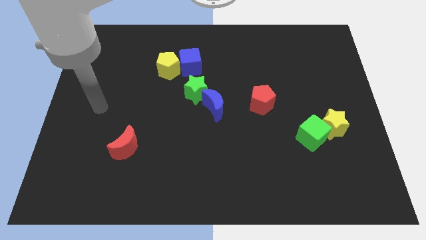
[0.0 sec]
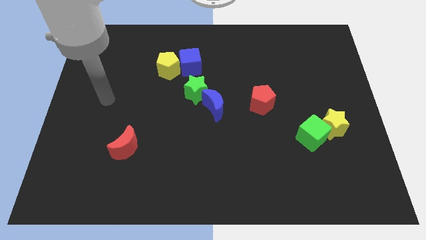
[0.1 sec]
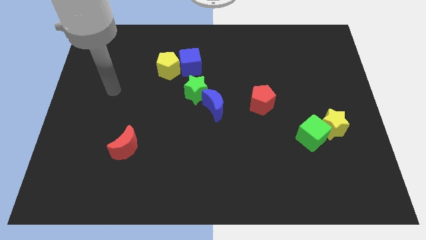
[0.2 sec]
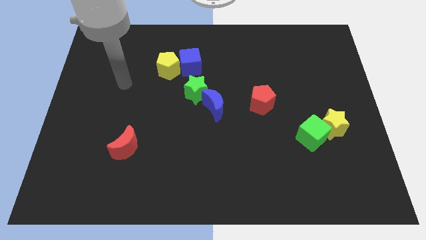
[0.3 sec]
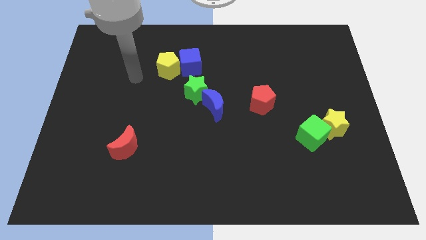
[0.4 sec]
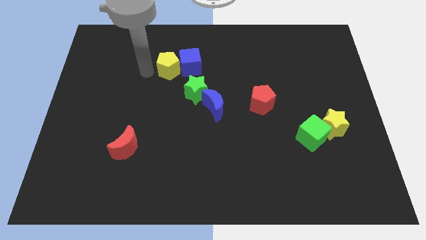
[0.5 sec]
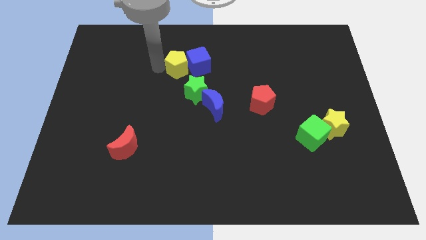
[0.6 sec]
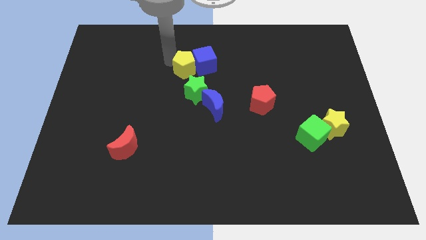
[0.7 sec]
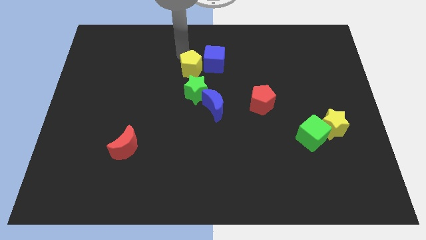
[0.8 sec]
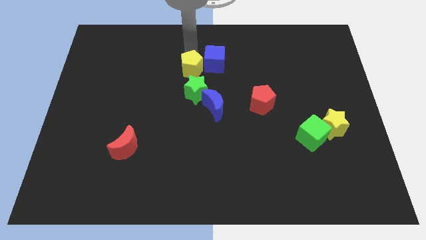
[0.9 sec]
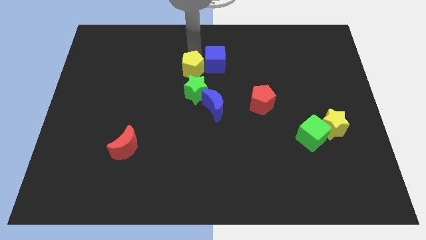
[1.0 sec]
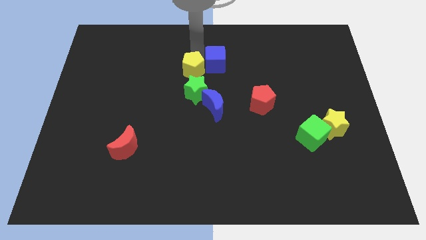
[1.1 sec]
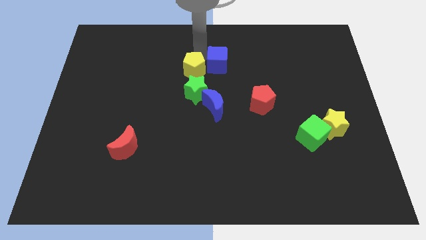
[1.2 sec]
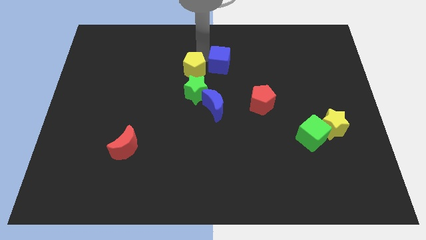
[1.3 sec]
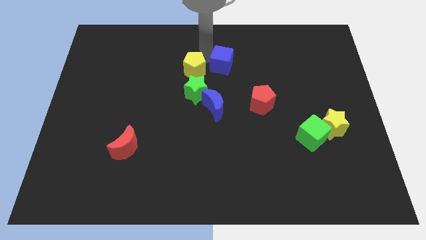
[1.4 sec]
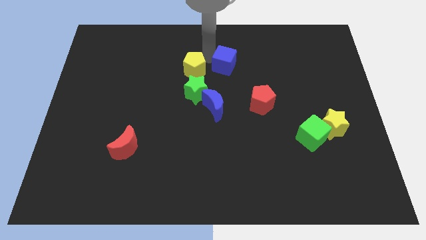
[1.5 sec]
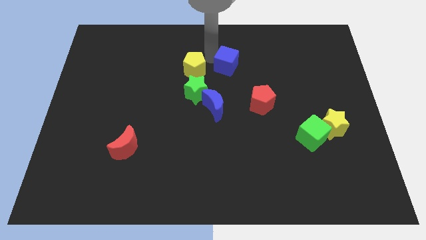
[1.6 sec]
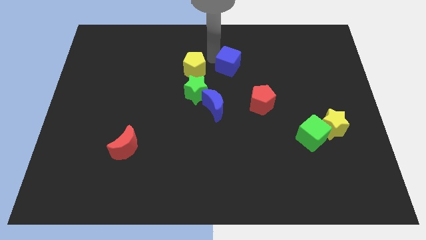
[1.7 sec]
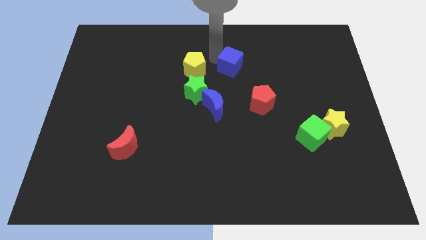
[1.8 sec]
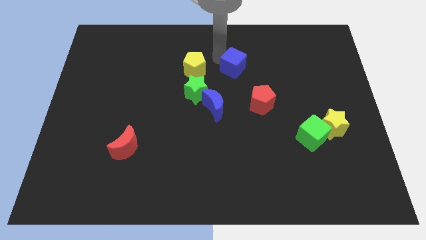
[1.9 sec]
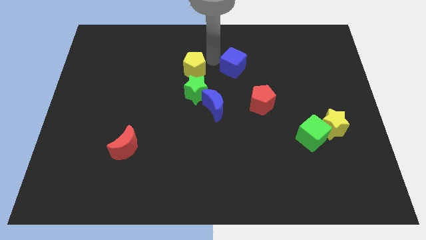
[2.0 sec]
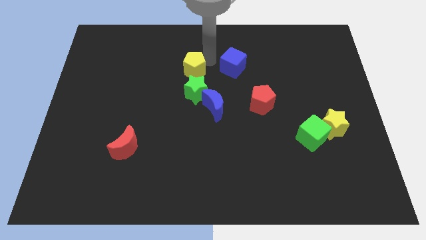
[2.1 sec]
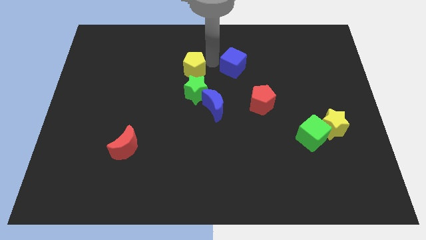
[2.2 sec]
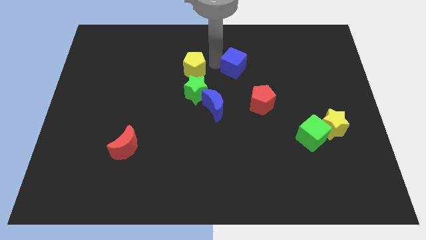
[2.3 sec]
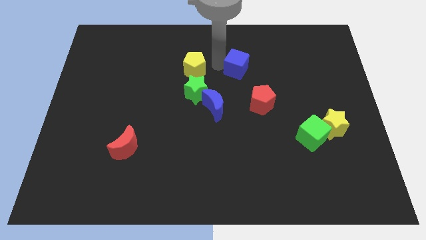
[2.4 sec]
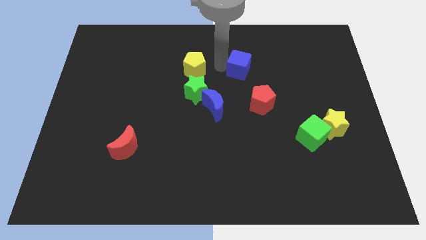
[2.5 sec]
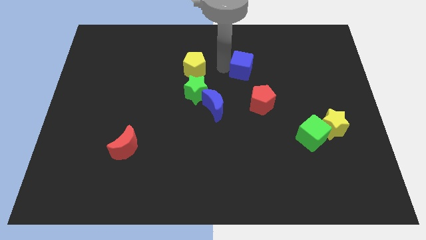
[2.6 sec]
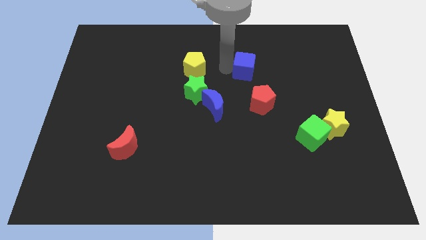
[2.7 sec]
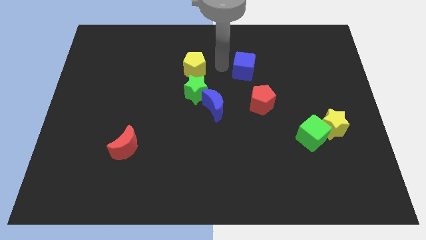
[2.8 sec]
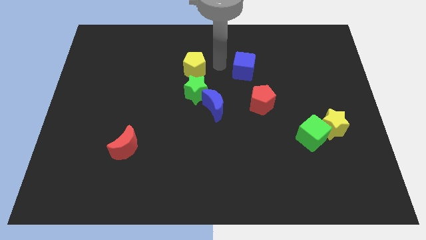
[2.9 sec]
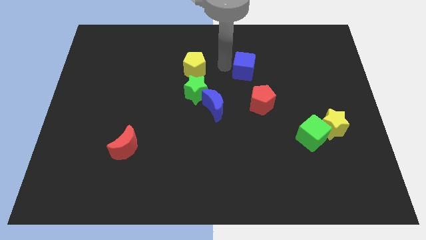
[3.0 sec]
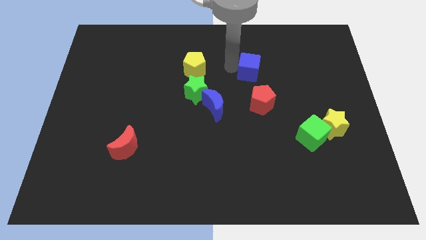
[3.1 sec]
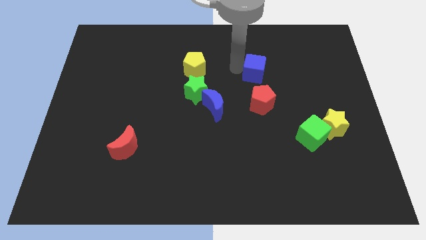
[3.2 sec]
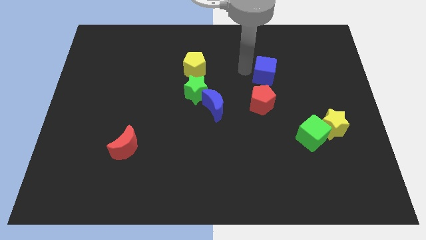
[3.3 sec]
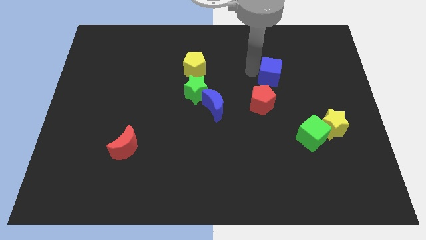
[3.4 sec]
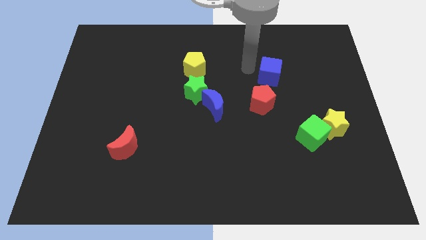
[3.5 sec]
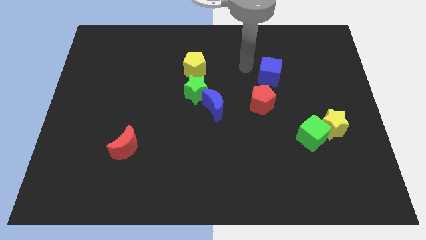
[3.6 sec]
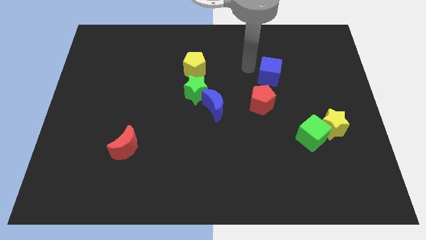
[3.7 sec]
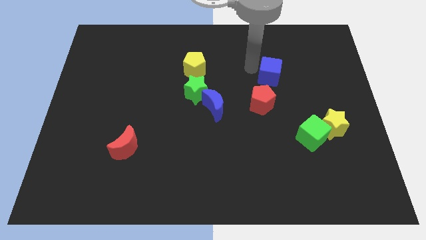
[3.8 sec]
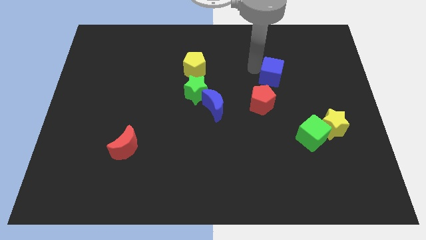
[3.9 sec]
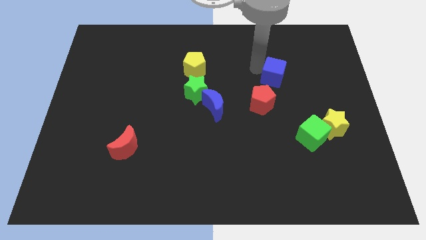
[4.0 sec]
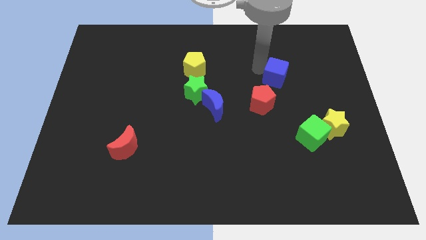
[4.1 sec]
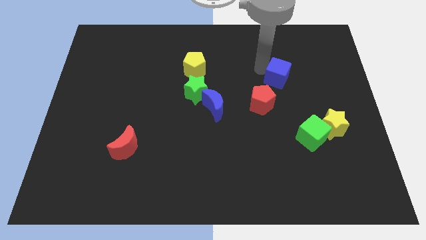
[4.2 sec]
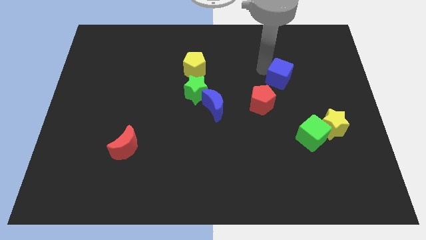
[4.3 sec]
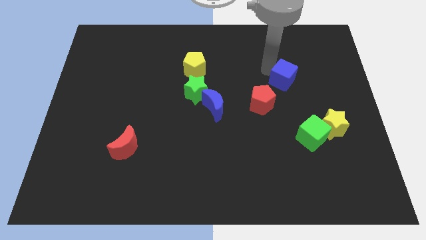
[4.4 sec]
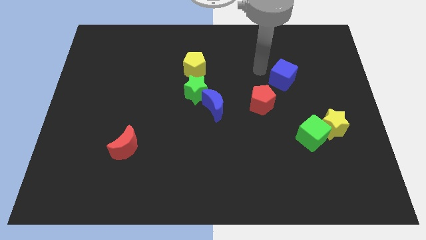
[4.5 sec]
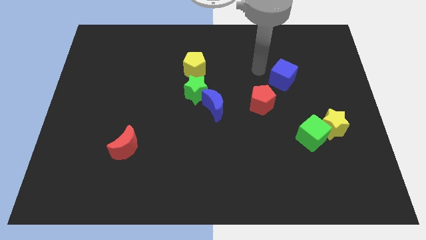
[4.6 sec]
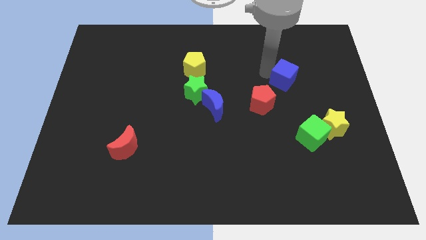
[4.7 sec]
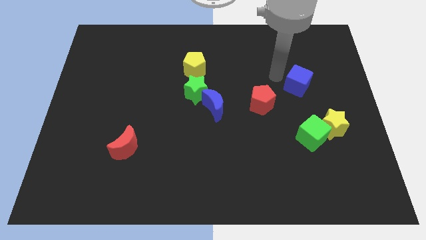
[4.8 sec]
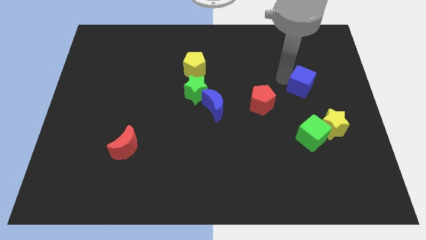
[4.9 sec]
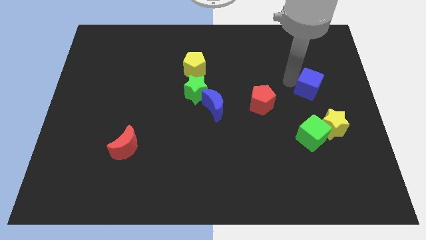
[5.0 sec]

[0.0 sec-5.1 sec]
push the blue cube above the yellow star

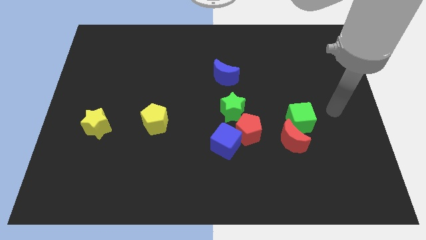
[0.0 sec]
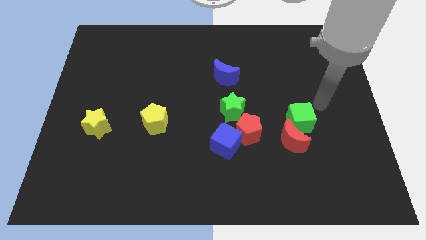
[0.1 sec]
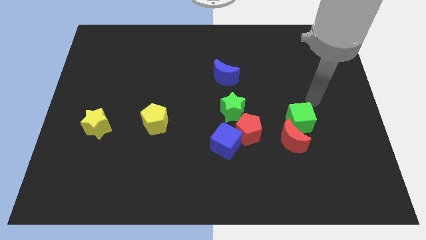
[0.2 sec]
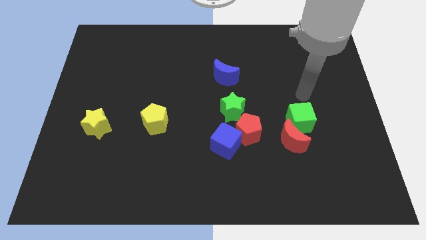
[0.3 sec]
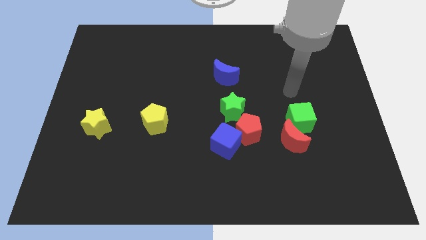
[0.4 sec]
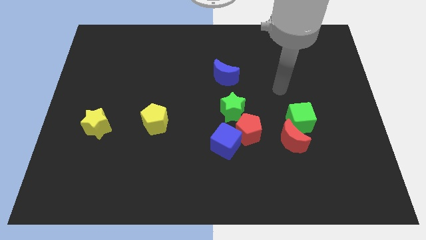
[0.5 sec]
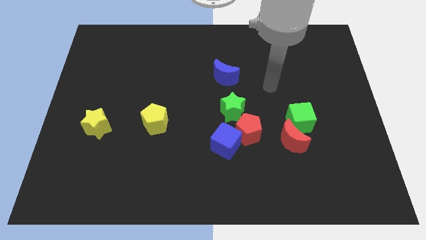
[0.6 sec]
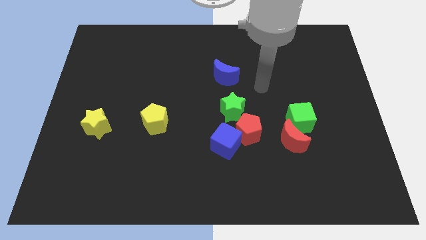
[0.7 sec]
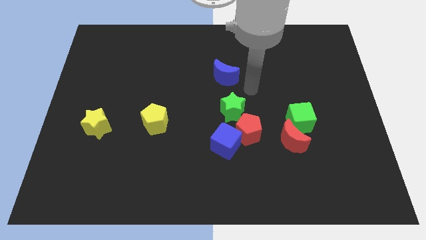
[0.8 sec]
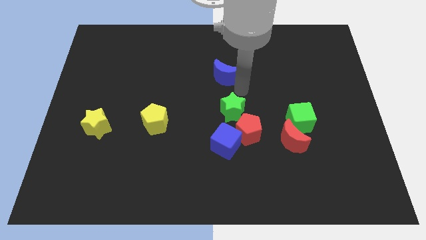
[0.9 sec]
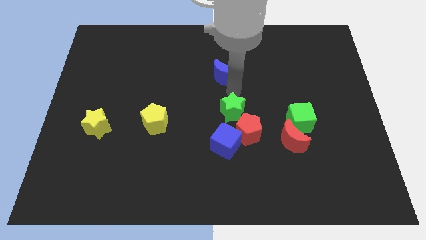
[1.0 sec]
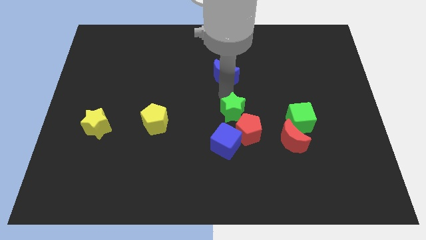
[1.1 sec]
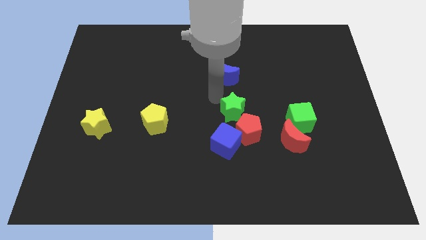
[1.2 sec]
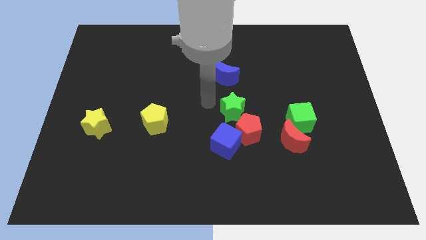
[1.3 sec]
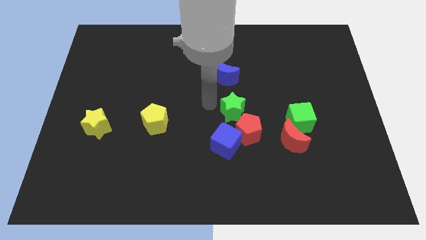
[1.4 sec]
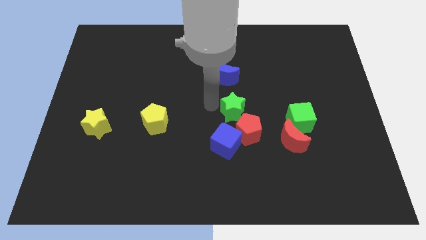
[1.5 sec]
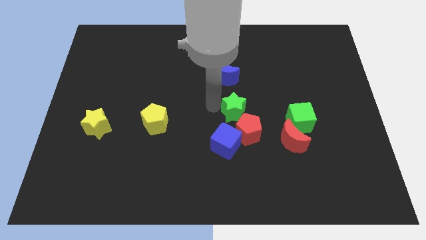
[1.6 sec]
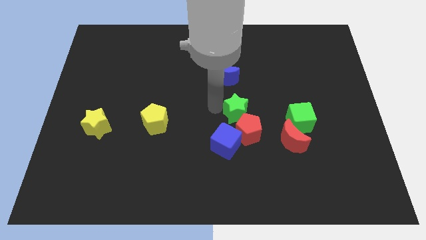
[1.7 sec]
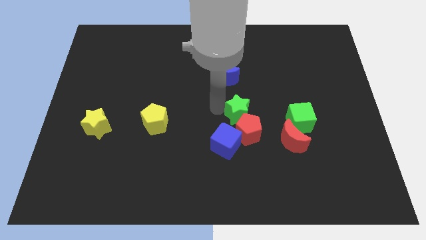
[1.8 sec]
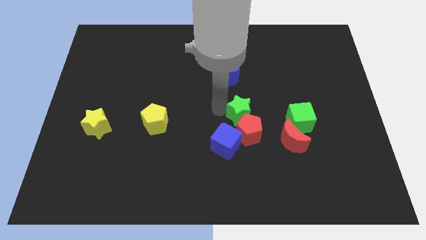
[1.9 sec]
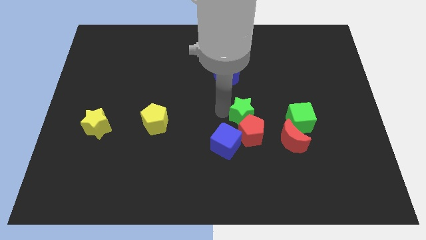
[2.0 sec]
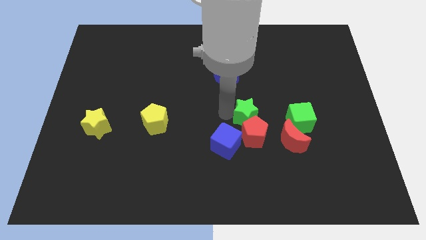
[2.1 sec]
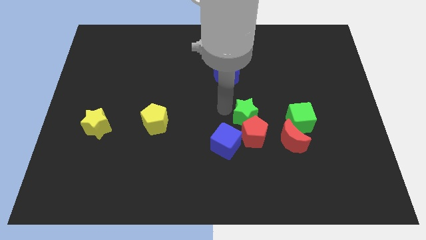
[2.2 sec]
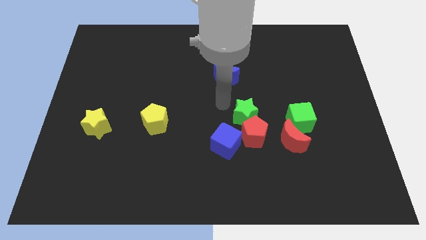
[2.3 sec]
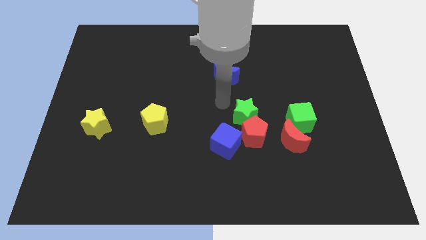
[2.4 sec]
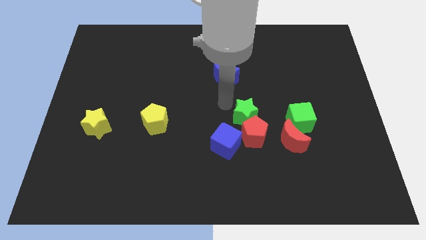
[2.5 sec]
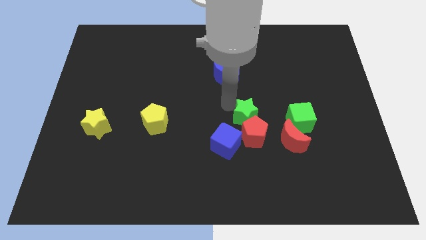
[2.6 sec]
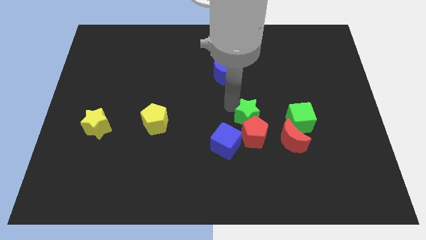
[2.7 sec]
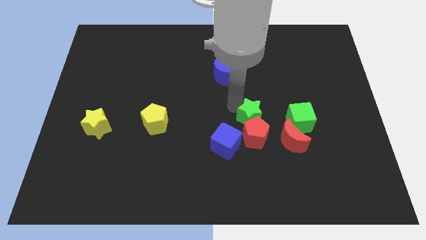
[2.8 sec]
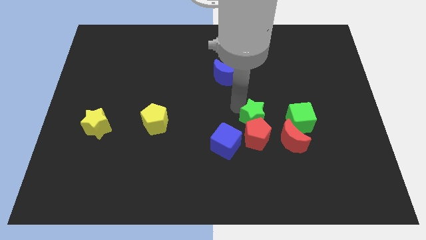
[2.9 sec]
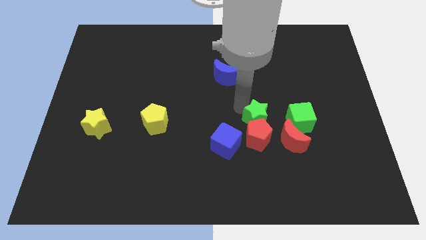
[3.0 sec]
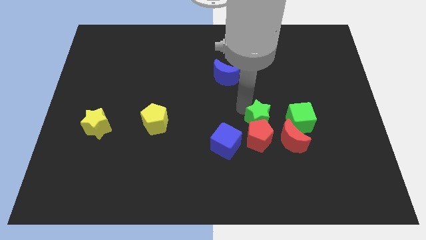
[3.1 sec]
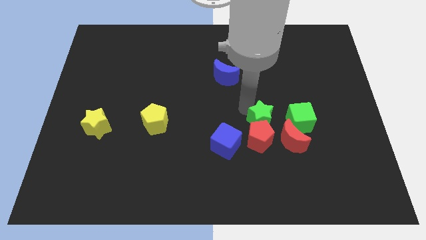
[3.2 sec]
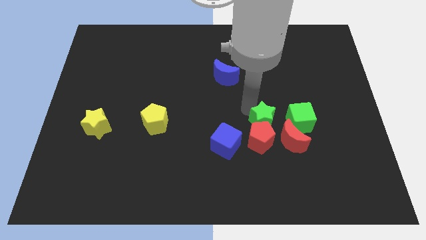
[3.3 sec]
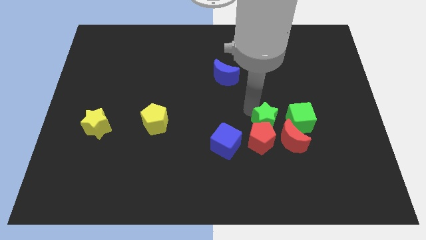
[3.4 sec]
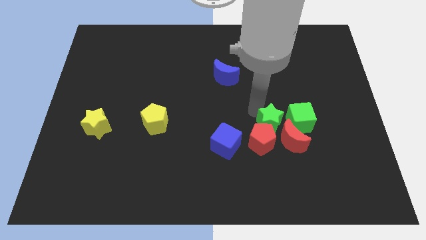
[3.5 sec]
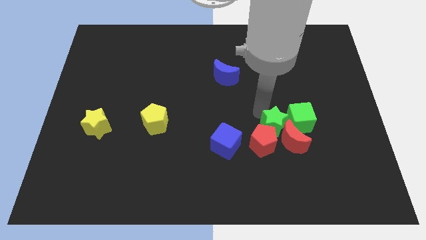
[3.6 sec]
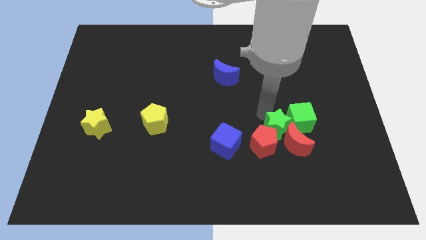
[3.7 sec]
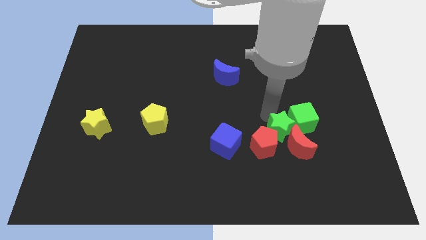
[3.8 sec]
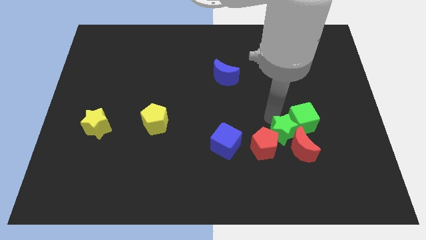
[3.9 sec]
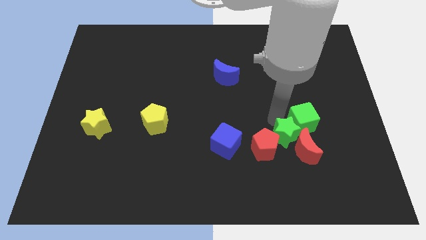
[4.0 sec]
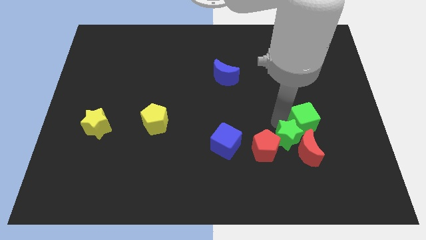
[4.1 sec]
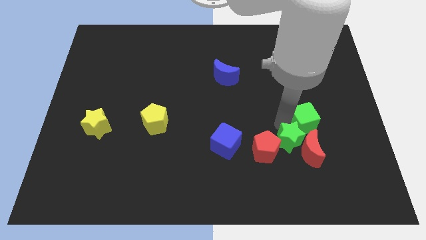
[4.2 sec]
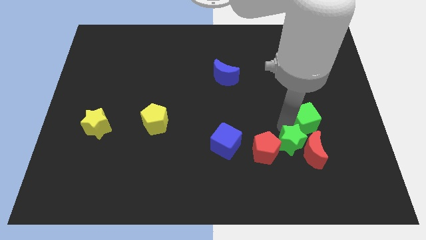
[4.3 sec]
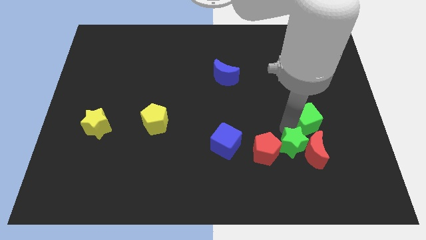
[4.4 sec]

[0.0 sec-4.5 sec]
push the green star to the bottom right of the red pentagon
